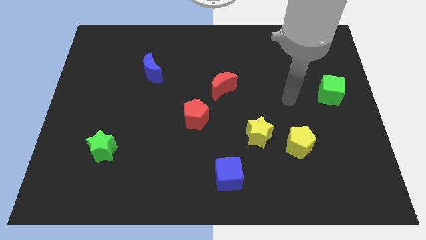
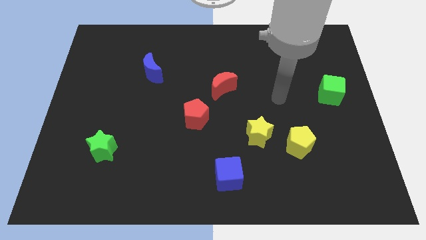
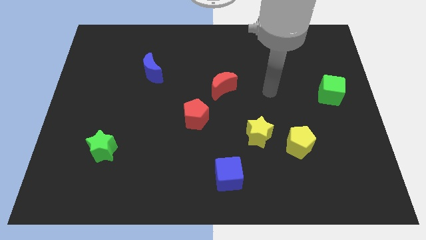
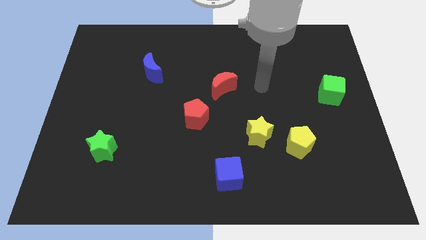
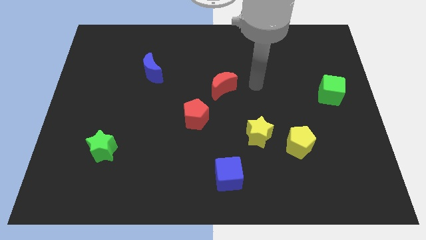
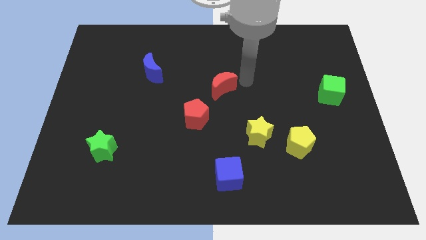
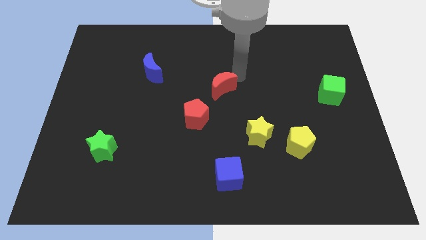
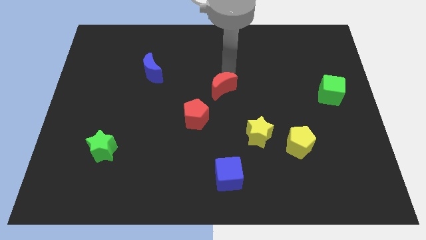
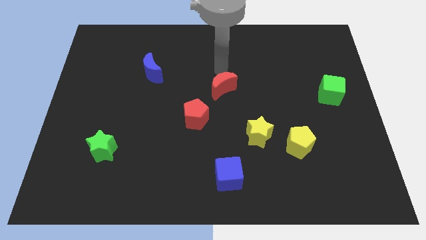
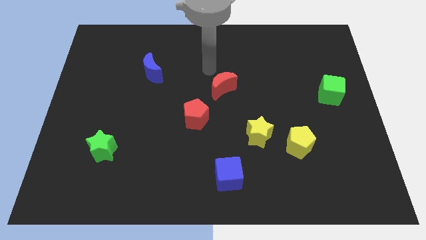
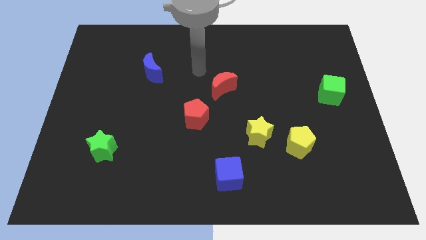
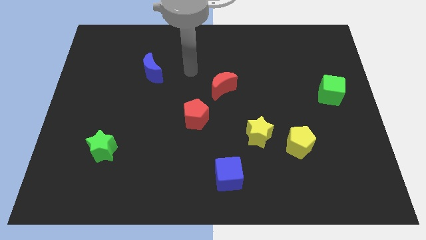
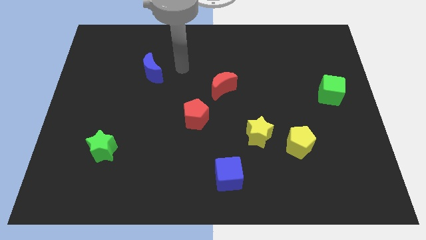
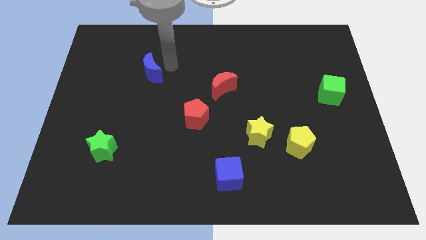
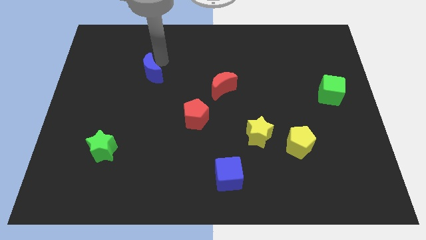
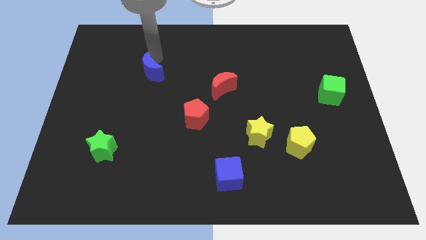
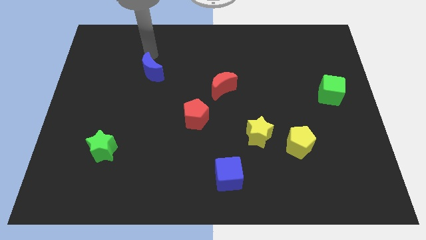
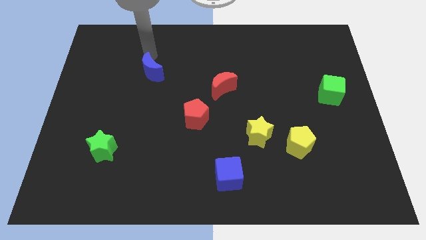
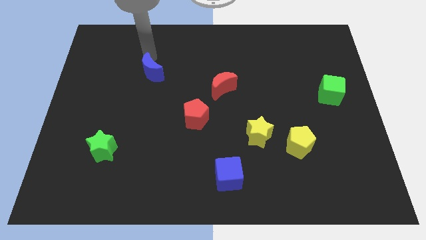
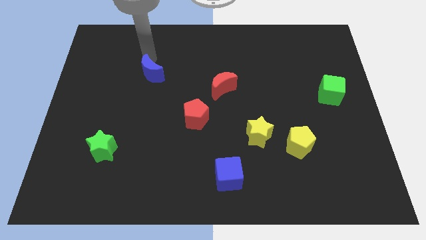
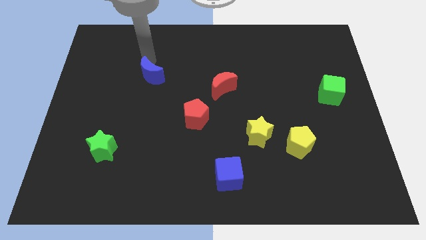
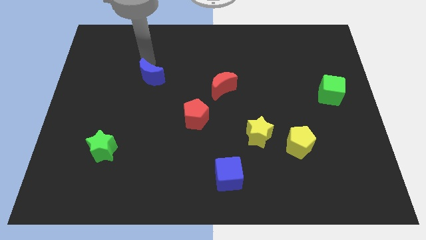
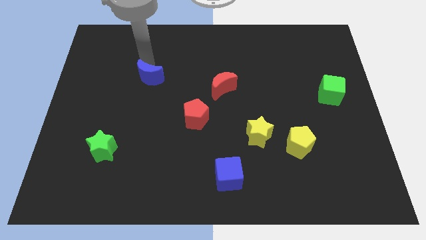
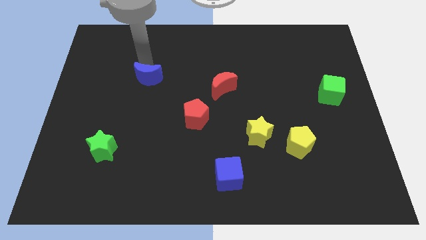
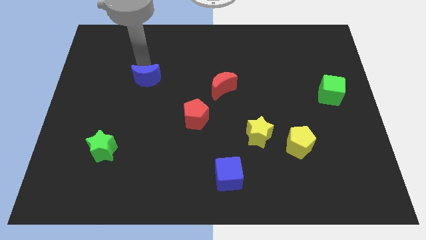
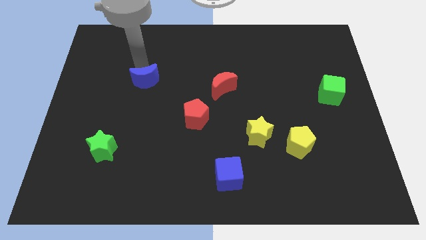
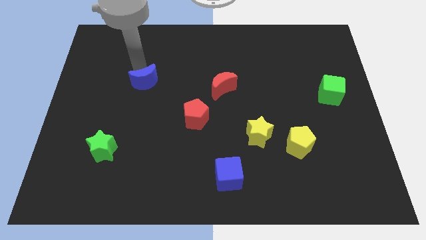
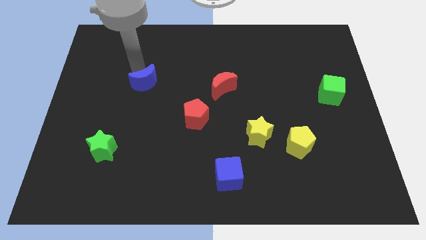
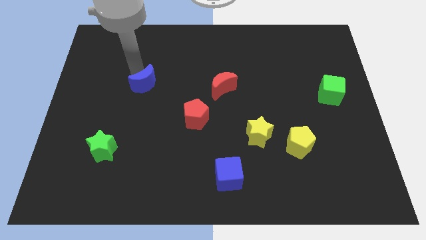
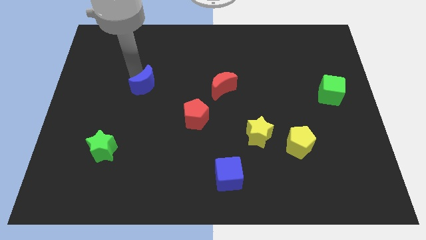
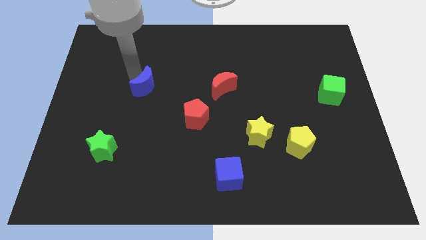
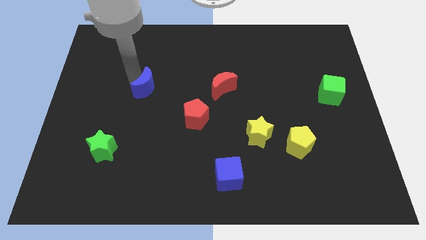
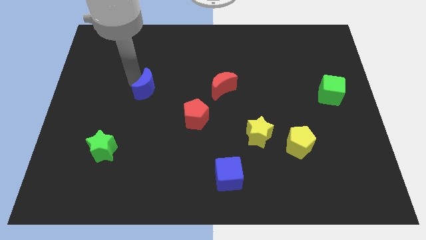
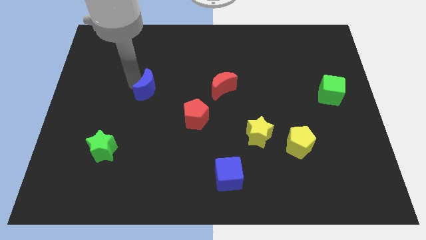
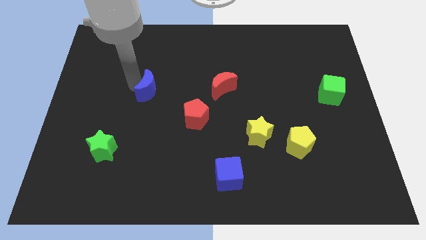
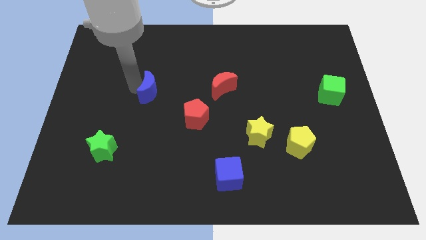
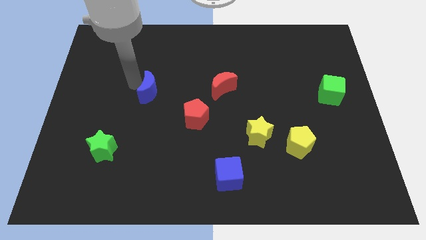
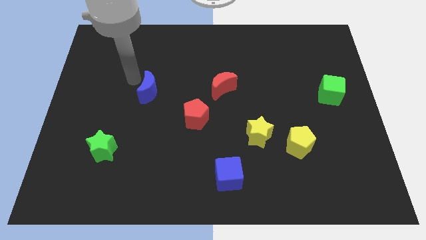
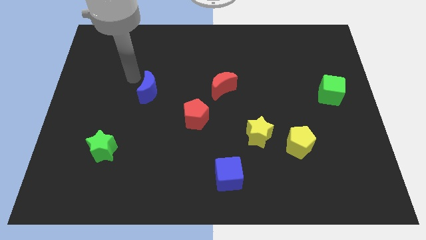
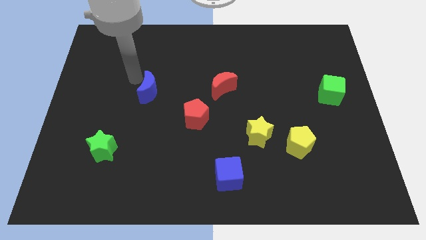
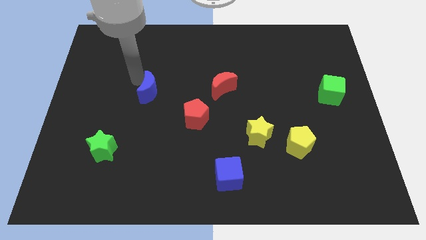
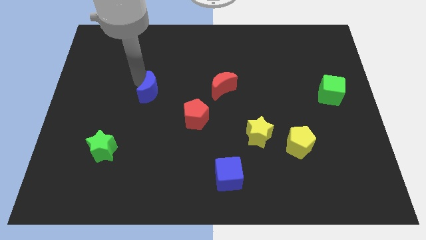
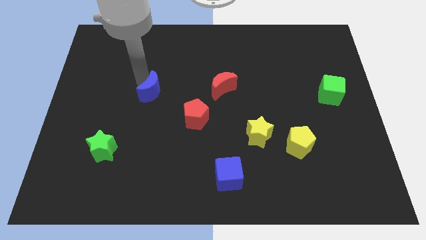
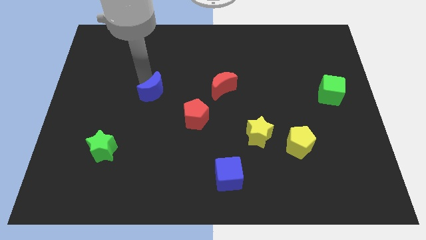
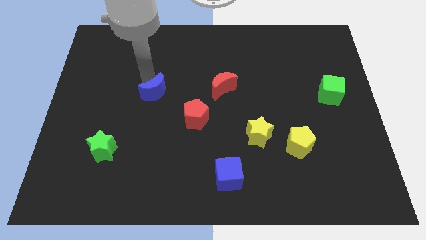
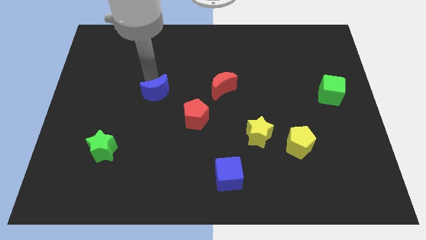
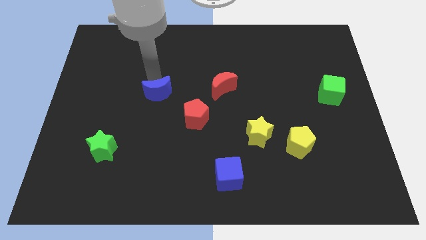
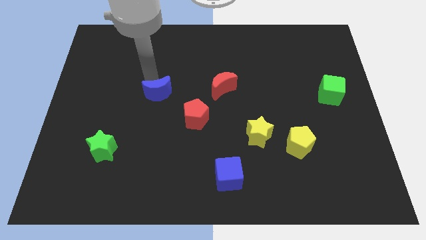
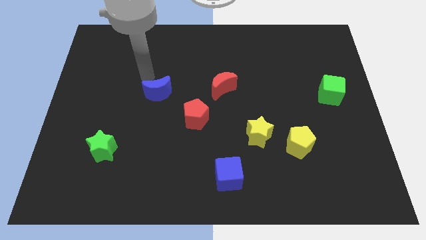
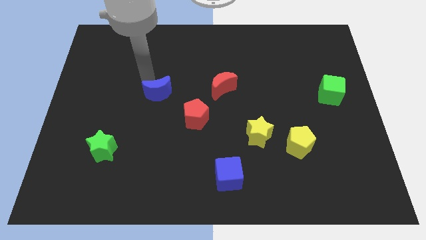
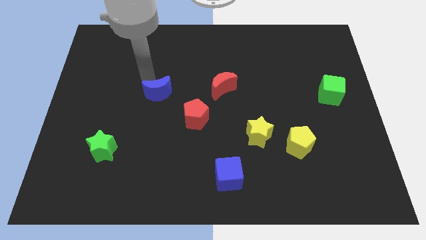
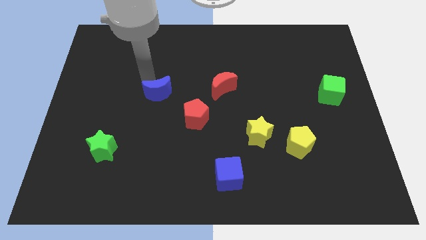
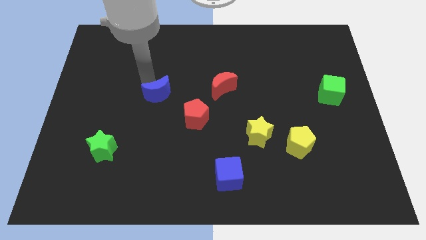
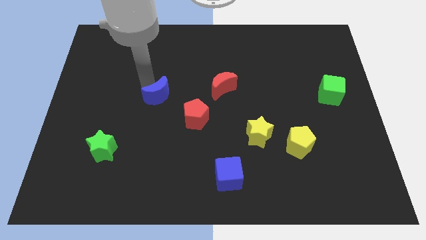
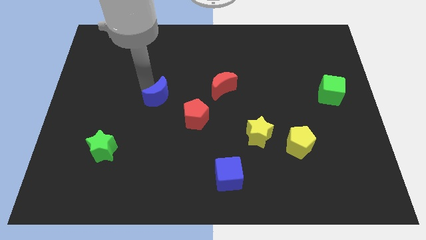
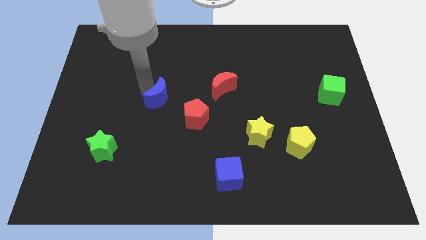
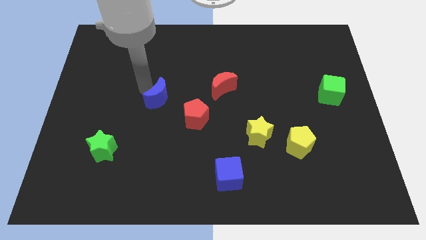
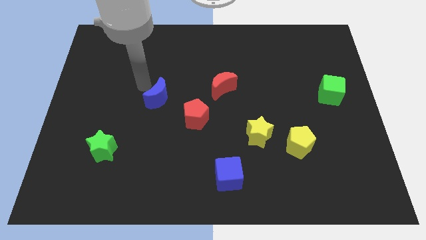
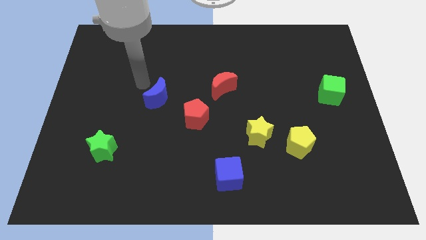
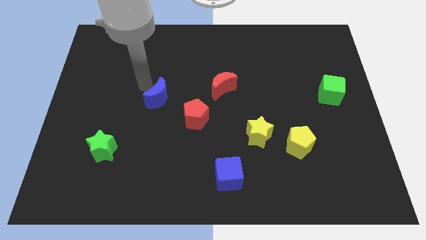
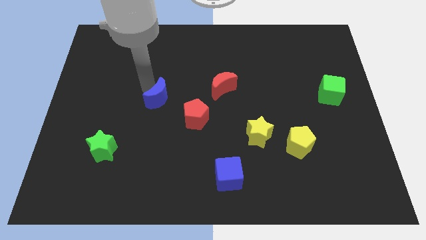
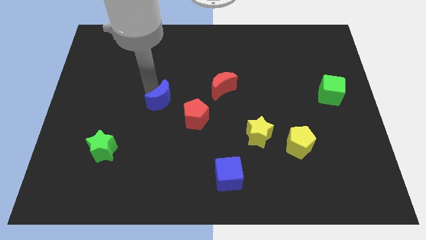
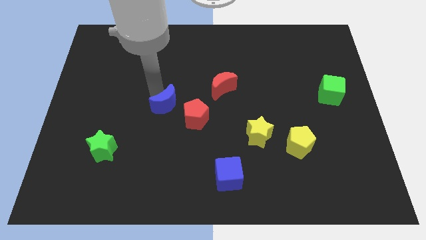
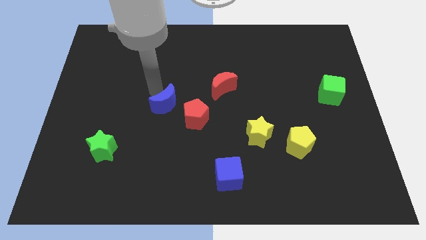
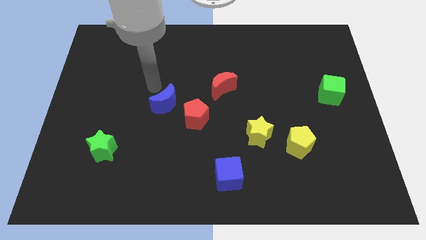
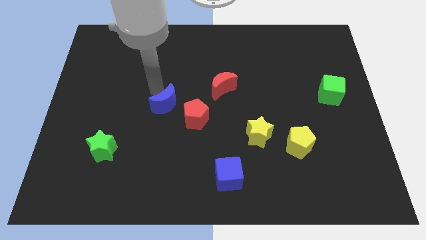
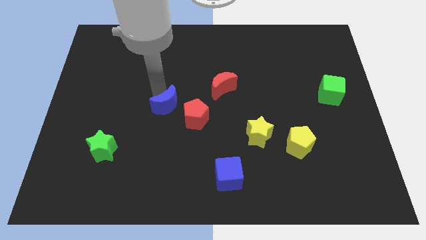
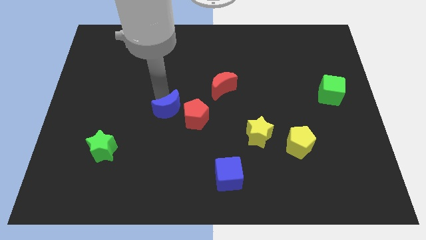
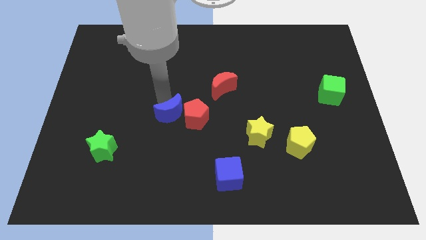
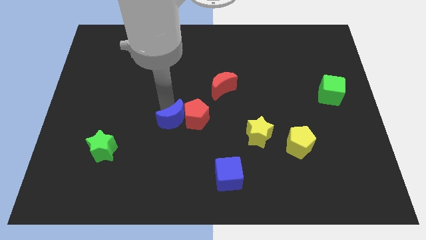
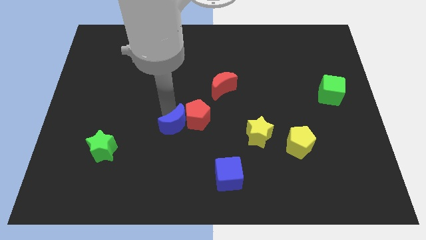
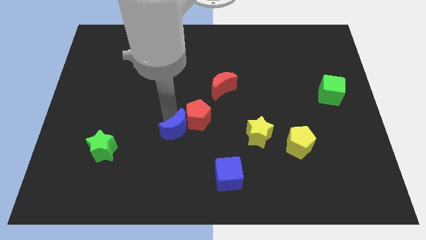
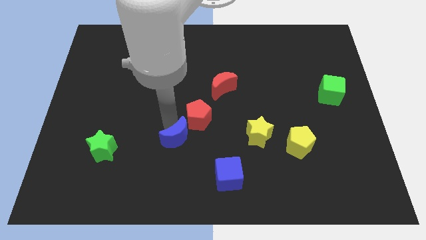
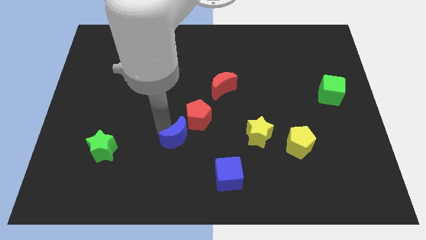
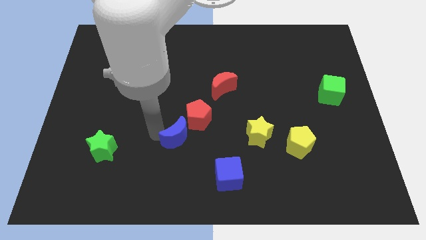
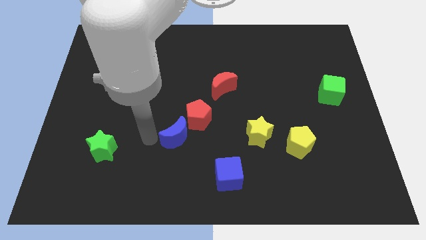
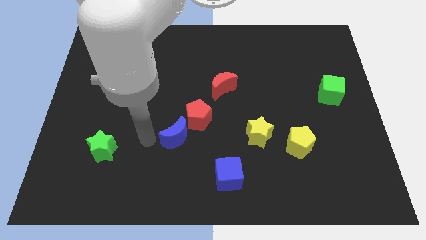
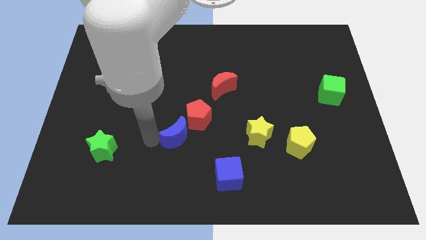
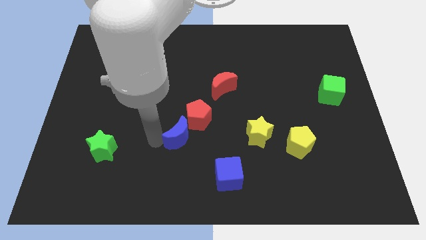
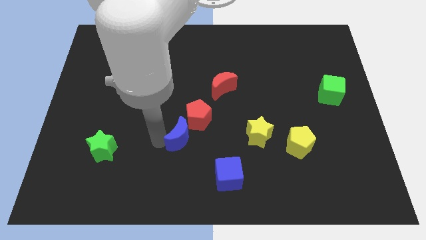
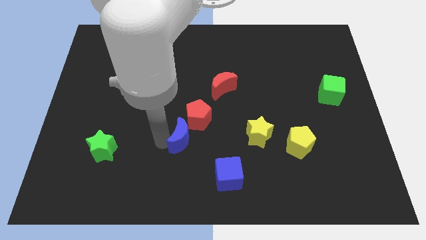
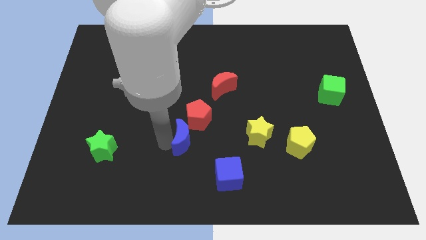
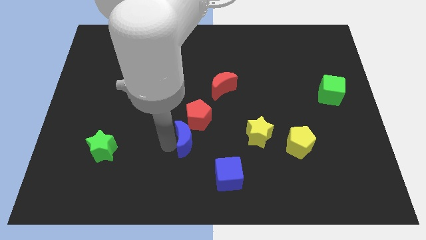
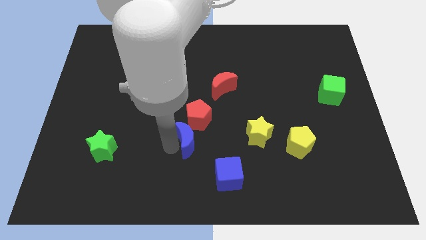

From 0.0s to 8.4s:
push the blue moon to the left of the yellow star
